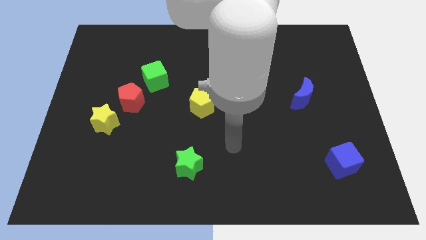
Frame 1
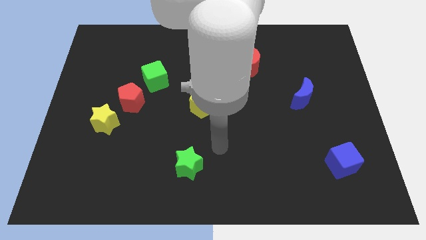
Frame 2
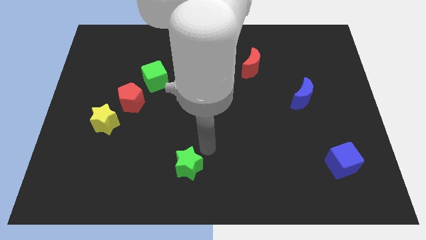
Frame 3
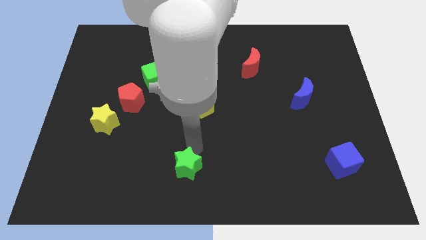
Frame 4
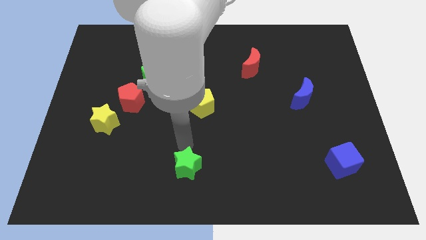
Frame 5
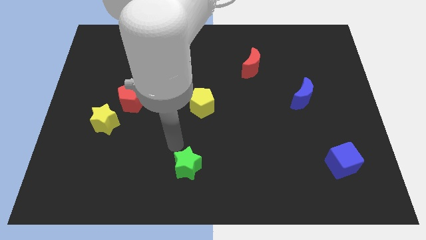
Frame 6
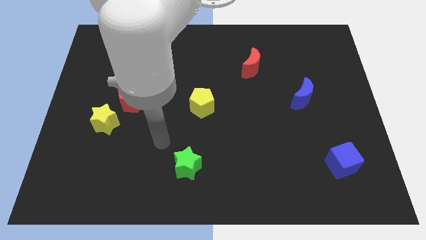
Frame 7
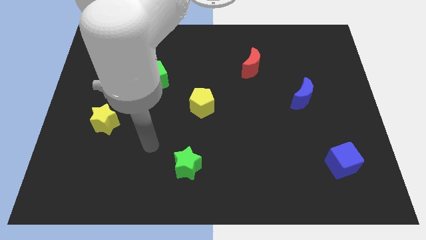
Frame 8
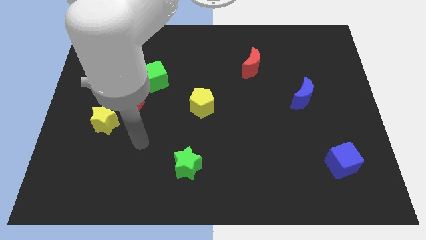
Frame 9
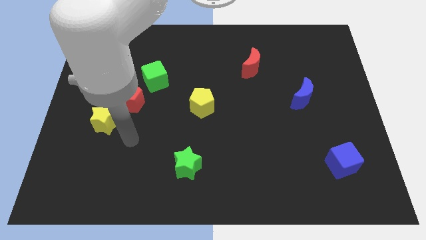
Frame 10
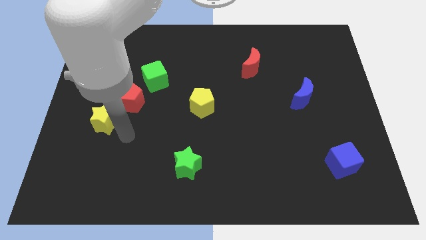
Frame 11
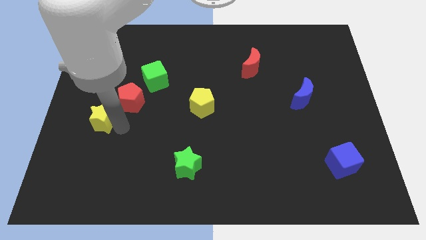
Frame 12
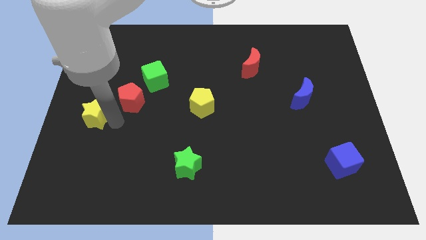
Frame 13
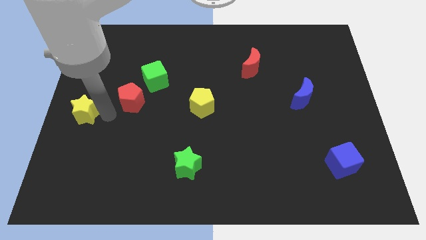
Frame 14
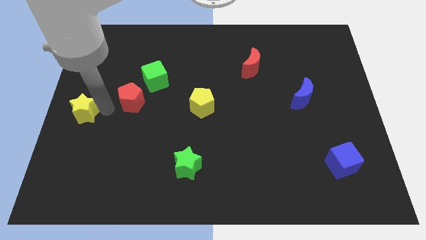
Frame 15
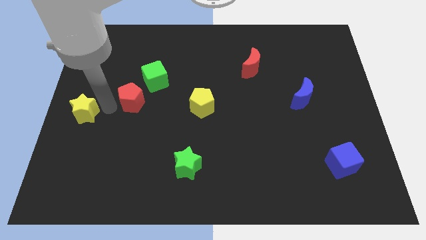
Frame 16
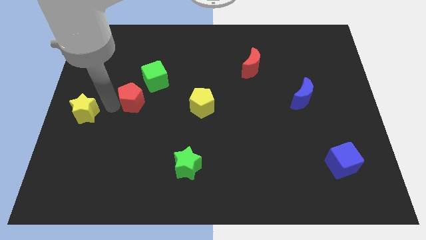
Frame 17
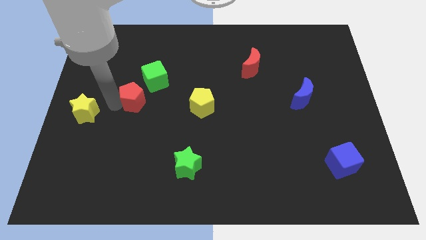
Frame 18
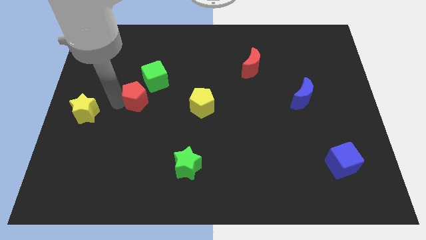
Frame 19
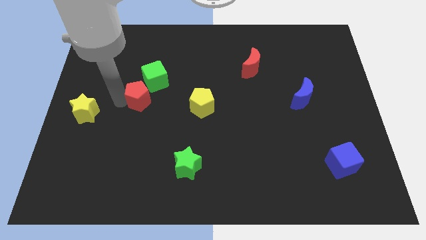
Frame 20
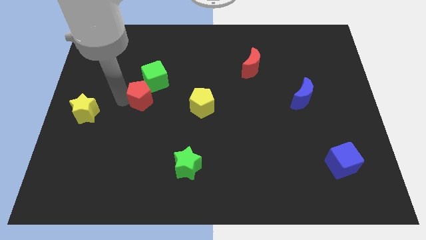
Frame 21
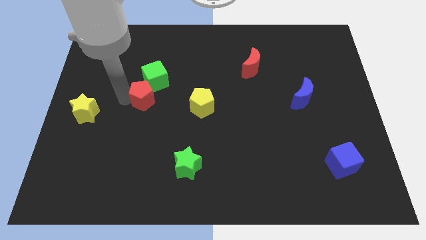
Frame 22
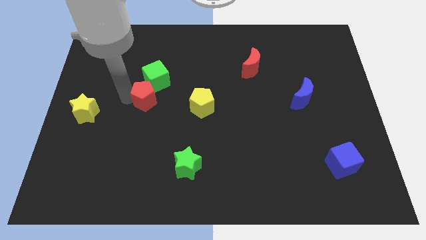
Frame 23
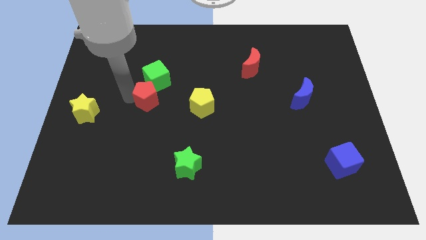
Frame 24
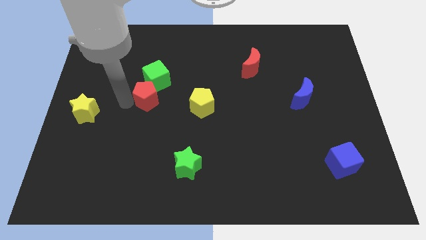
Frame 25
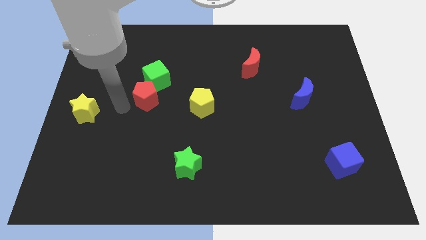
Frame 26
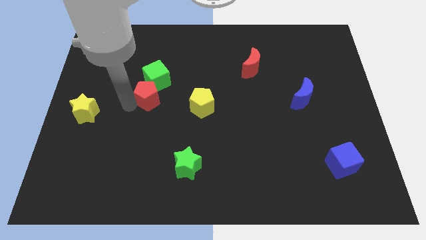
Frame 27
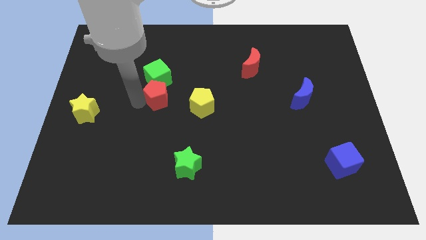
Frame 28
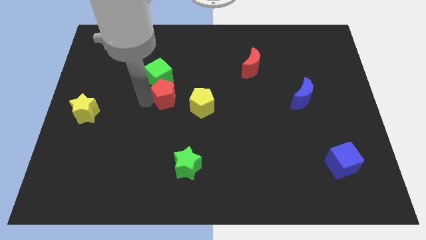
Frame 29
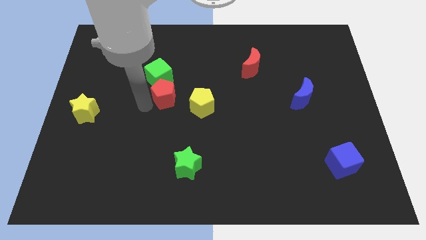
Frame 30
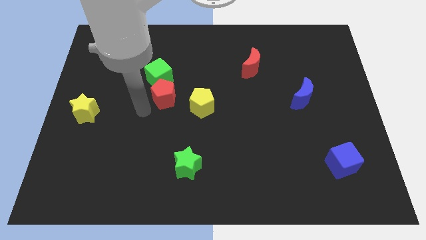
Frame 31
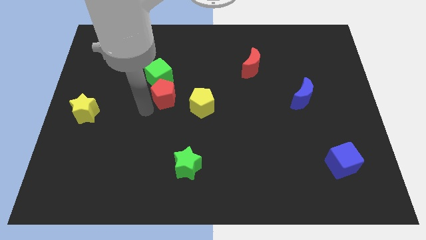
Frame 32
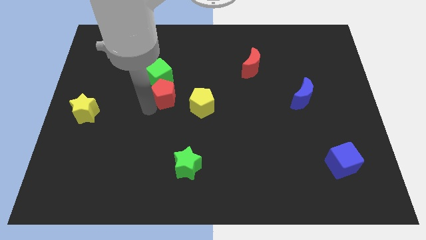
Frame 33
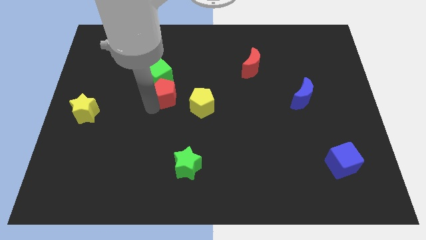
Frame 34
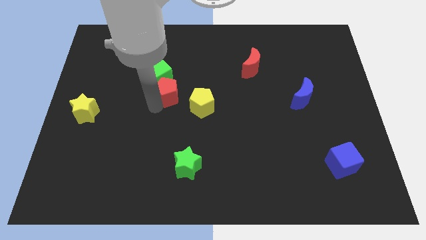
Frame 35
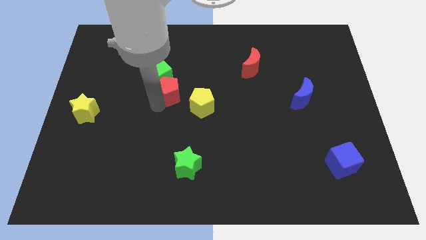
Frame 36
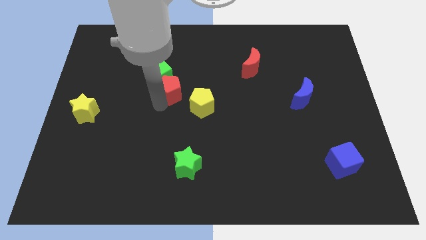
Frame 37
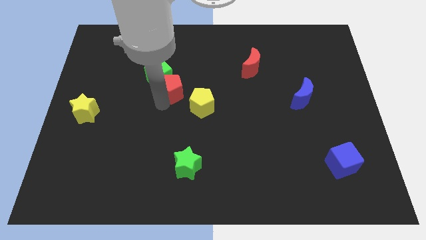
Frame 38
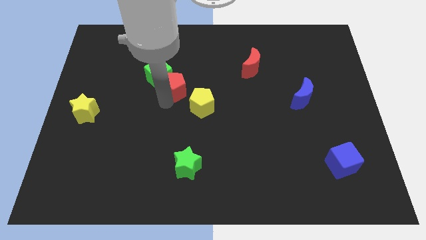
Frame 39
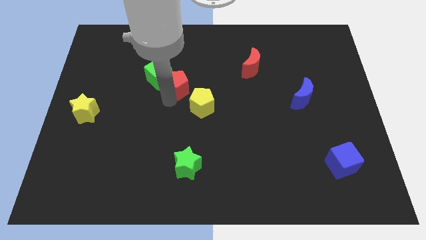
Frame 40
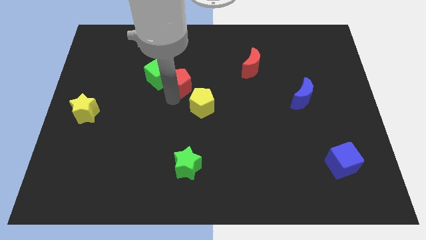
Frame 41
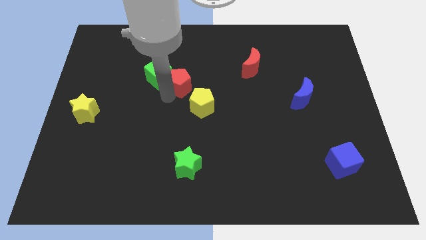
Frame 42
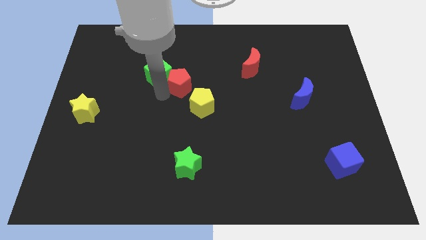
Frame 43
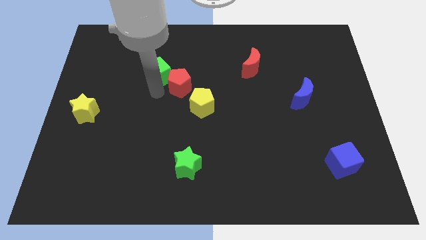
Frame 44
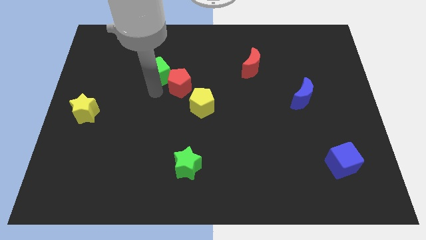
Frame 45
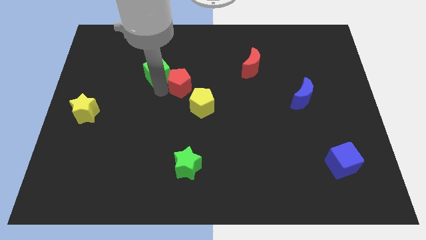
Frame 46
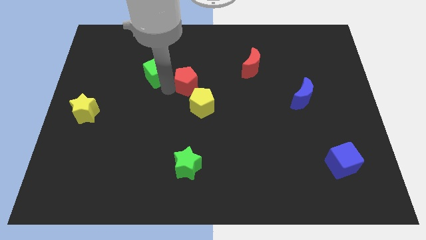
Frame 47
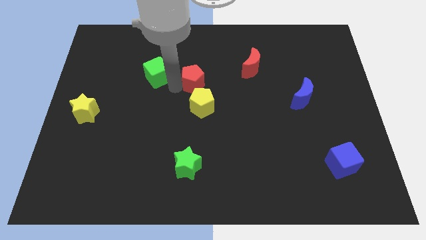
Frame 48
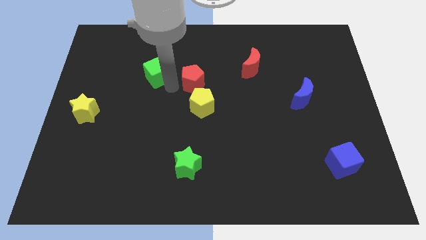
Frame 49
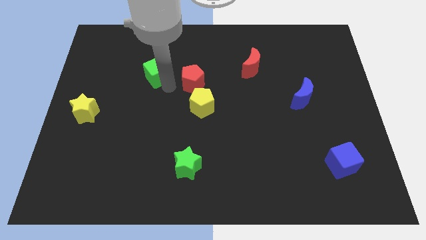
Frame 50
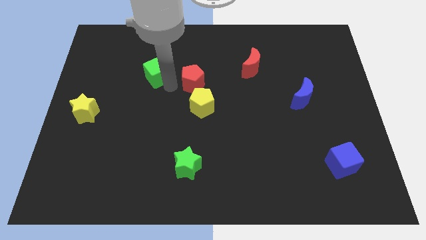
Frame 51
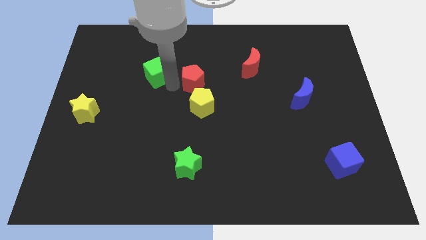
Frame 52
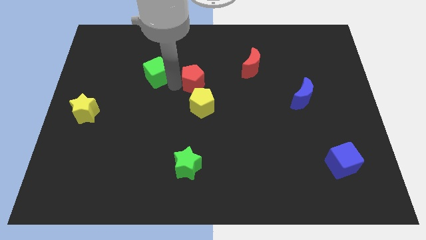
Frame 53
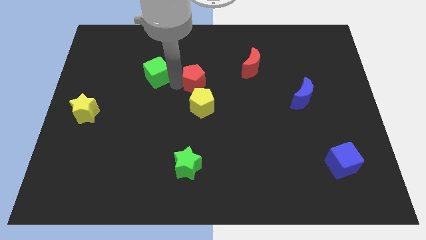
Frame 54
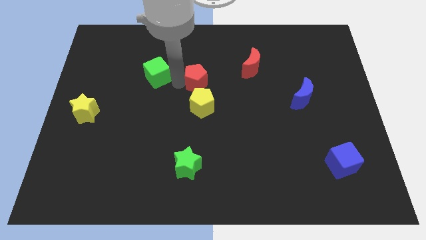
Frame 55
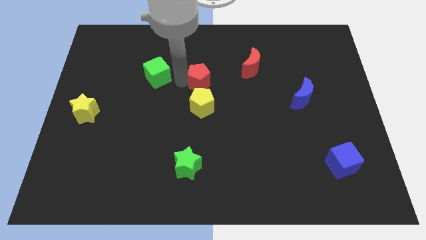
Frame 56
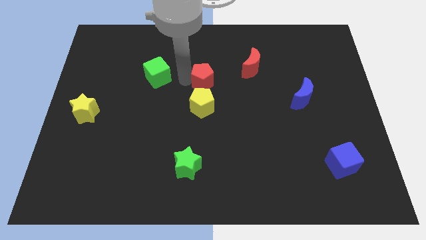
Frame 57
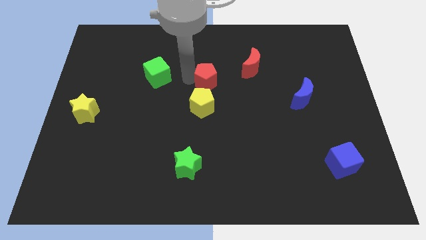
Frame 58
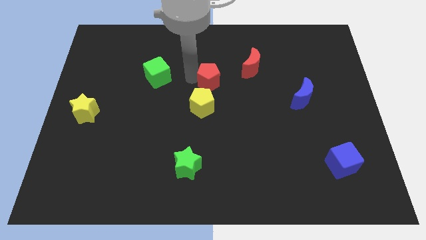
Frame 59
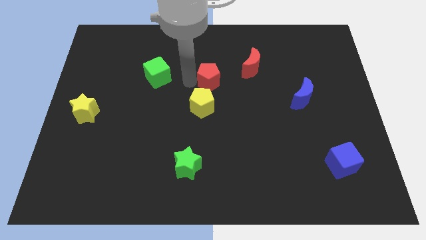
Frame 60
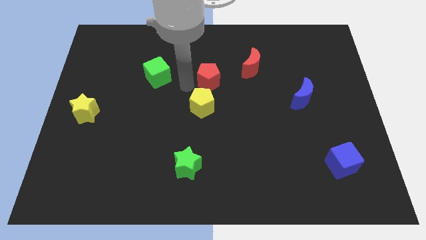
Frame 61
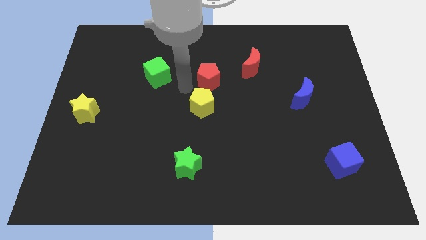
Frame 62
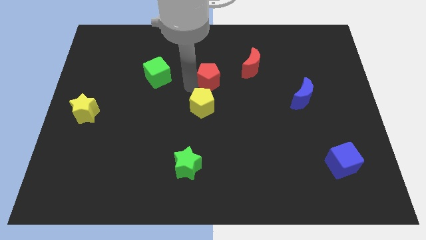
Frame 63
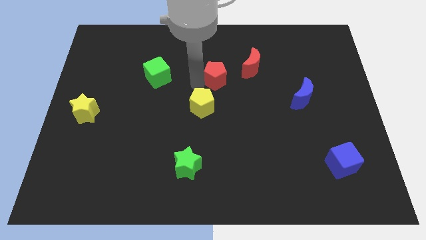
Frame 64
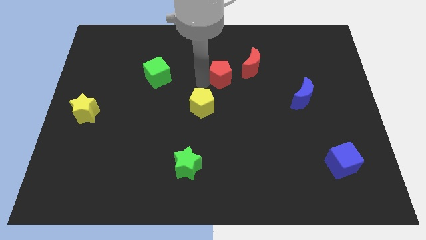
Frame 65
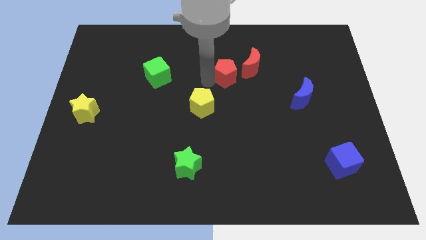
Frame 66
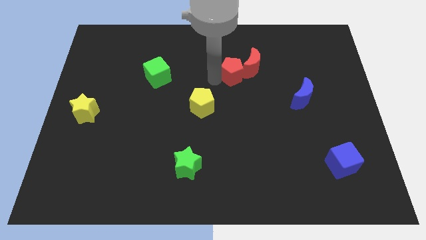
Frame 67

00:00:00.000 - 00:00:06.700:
put the red pentagon close to the red moon

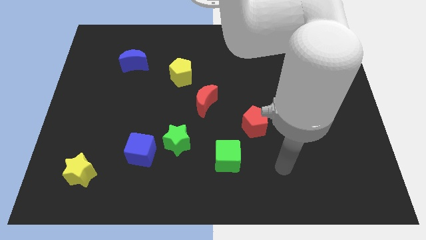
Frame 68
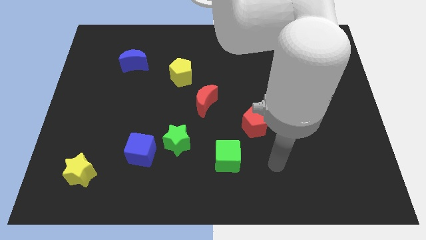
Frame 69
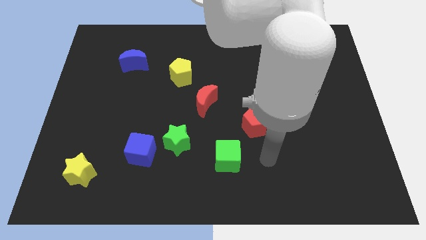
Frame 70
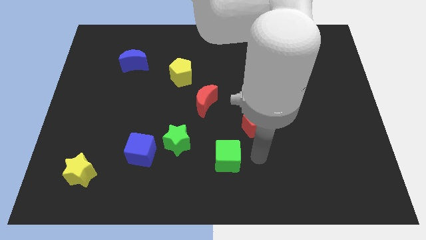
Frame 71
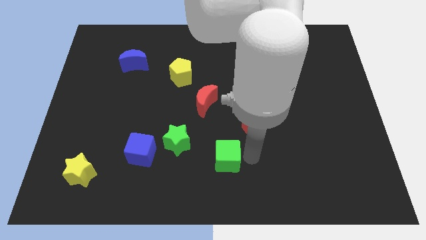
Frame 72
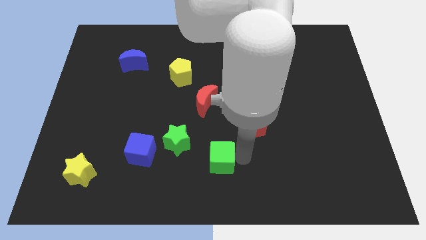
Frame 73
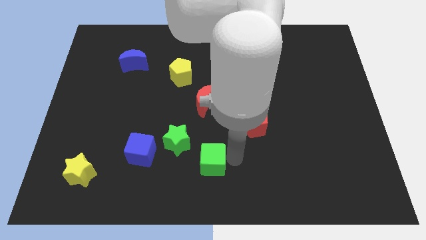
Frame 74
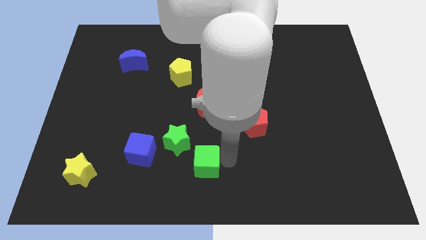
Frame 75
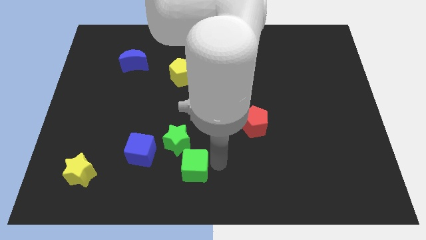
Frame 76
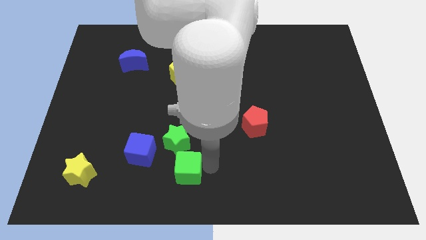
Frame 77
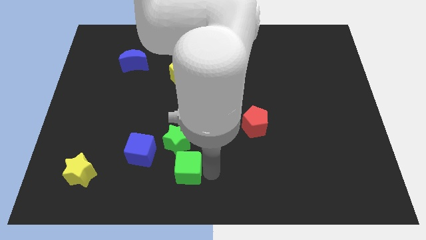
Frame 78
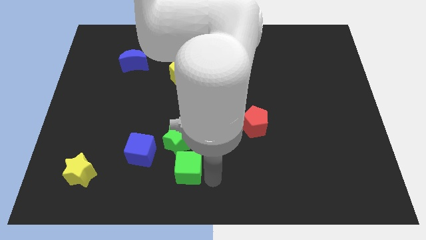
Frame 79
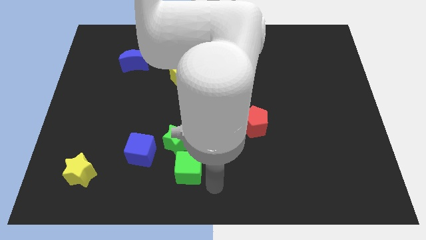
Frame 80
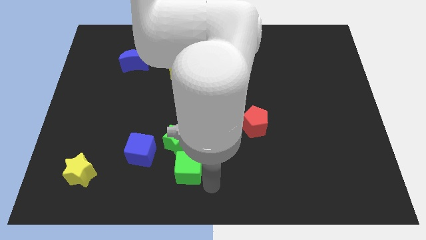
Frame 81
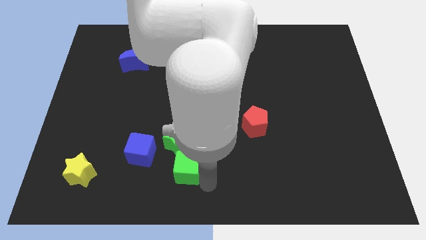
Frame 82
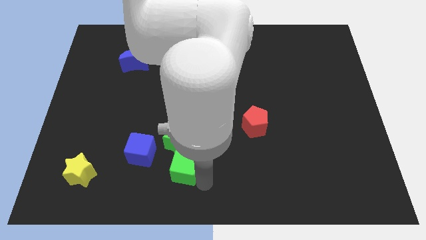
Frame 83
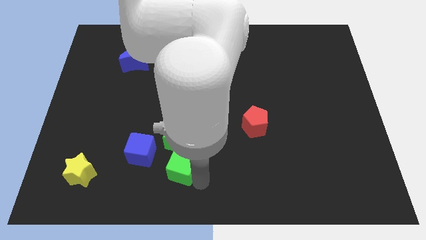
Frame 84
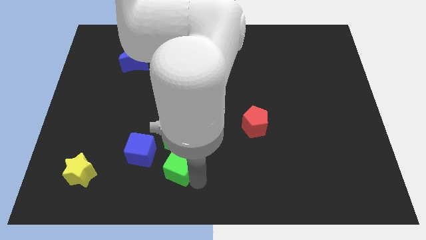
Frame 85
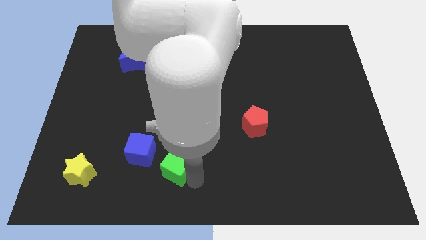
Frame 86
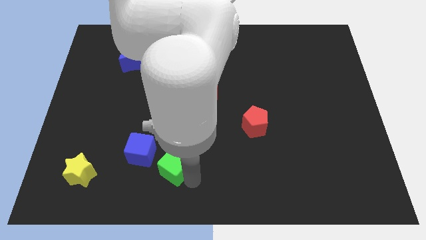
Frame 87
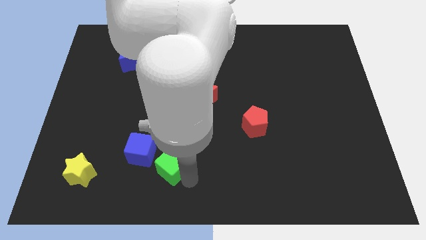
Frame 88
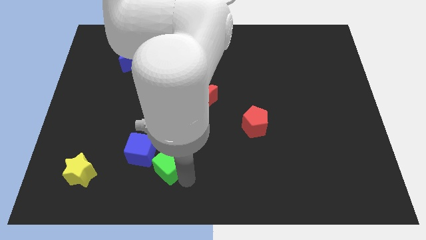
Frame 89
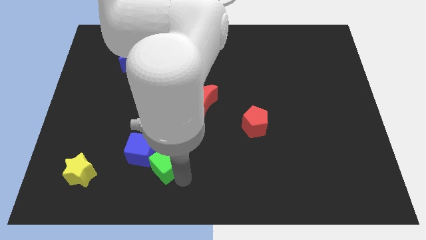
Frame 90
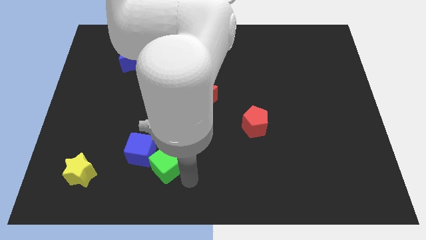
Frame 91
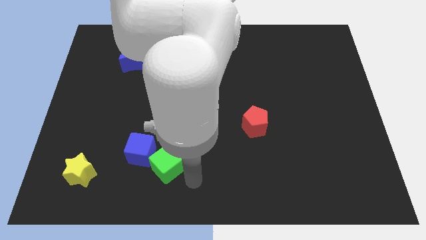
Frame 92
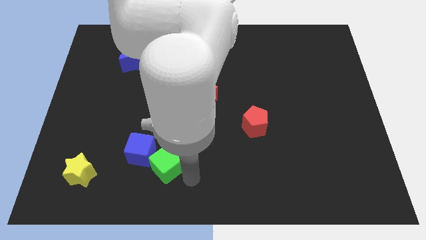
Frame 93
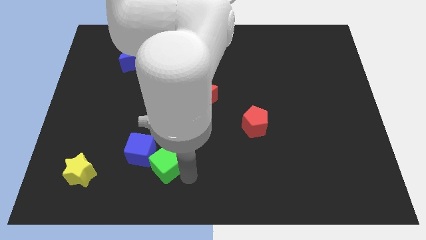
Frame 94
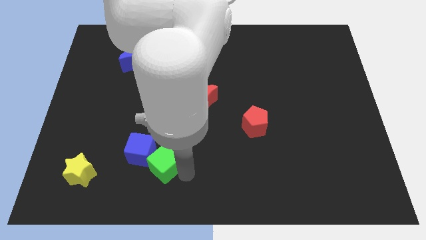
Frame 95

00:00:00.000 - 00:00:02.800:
put the green cube to the blue cube
